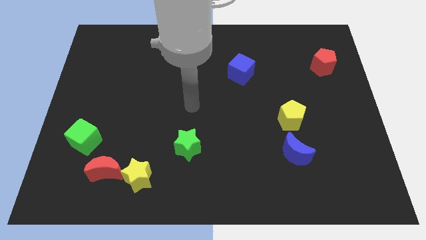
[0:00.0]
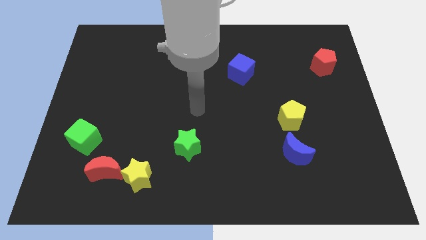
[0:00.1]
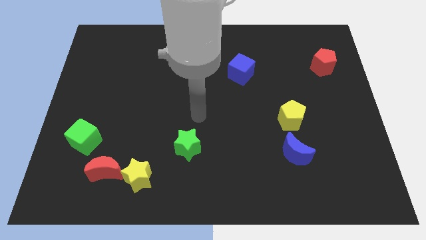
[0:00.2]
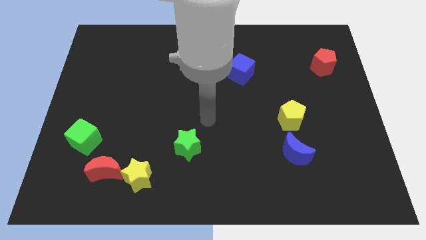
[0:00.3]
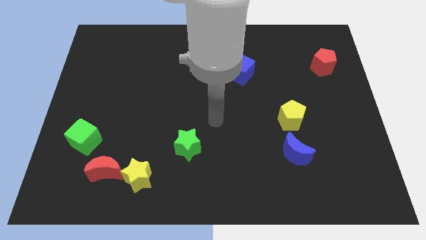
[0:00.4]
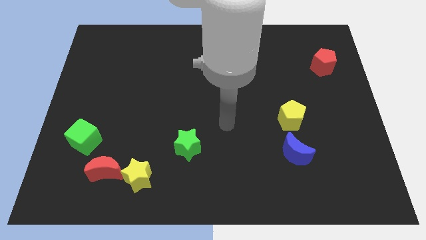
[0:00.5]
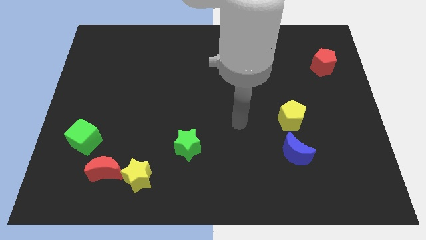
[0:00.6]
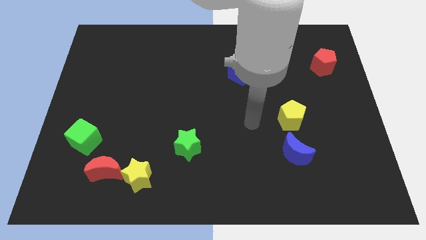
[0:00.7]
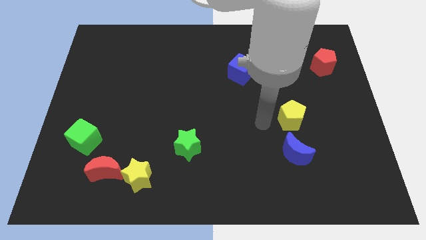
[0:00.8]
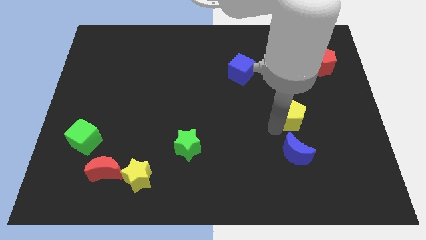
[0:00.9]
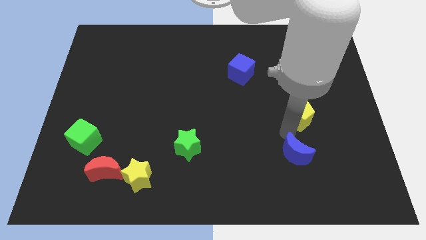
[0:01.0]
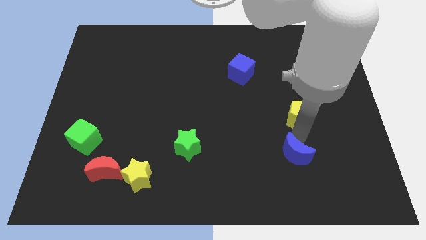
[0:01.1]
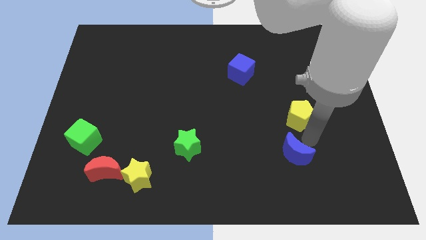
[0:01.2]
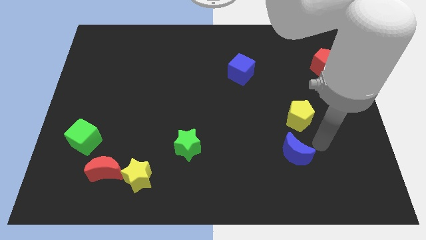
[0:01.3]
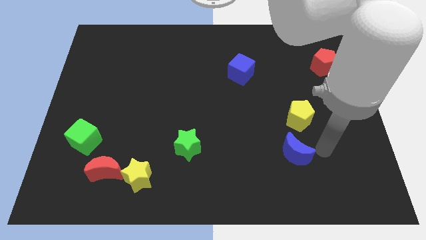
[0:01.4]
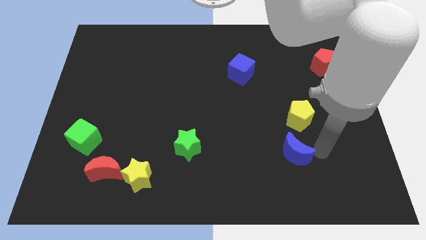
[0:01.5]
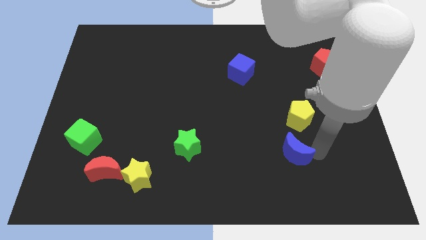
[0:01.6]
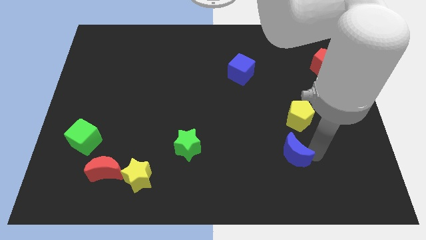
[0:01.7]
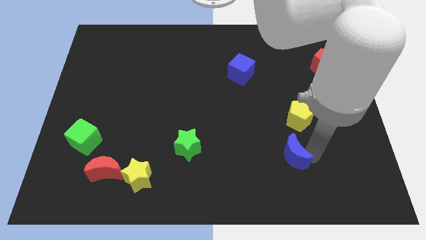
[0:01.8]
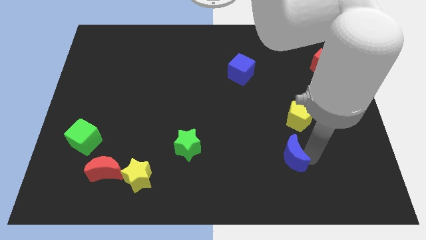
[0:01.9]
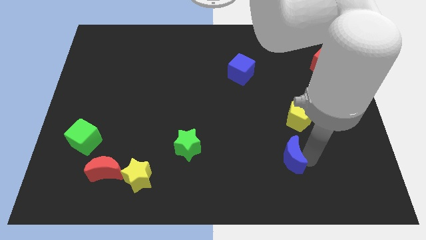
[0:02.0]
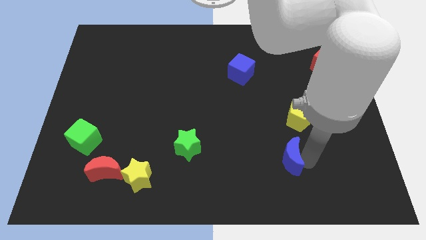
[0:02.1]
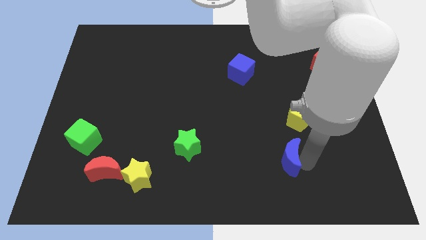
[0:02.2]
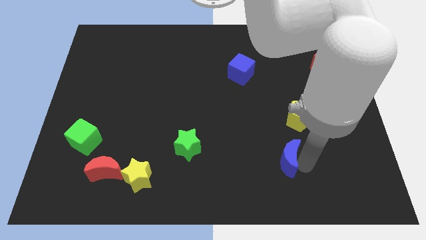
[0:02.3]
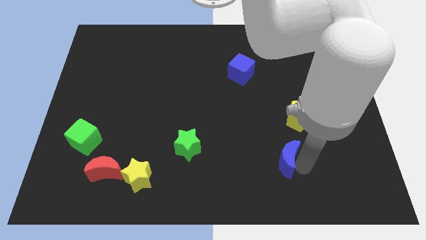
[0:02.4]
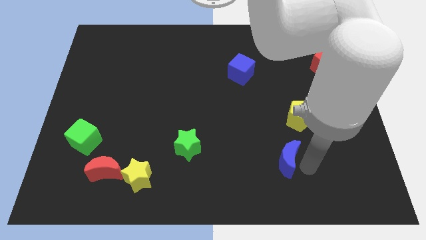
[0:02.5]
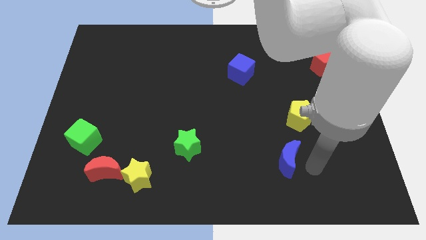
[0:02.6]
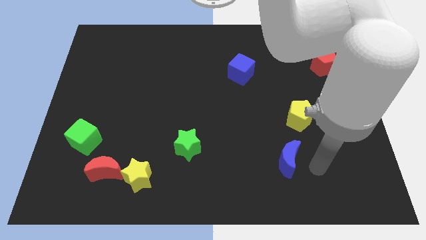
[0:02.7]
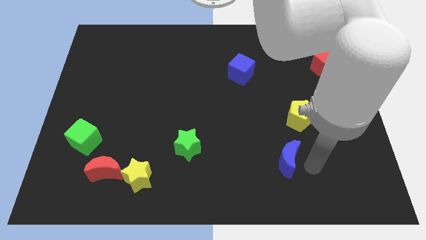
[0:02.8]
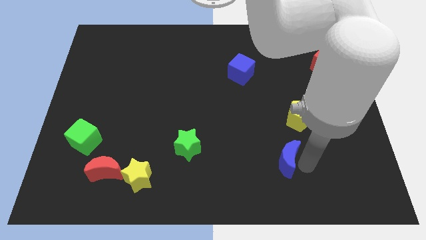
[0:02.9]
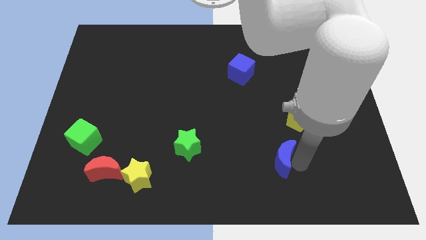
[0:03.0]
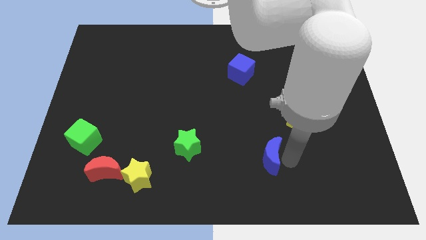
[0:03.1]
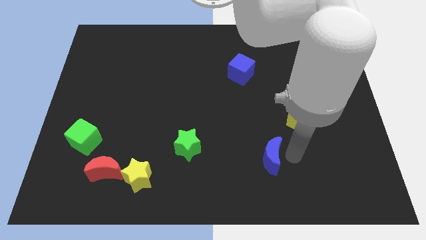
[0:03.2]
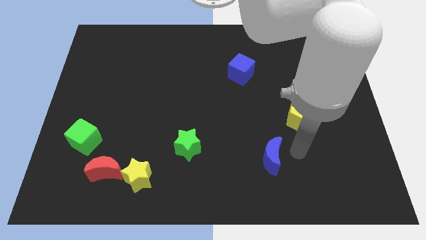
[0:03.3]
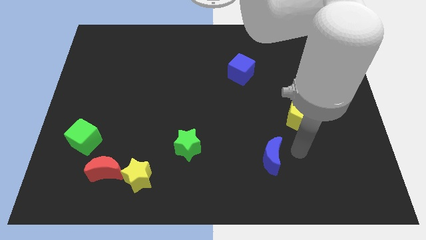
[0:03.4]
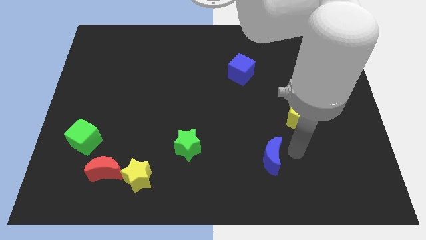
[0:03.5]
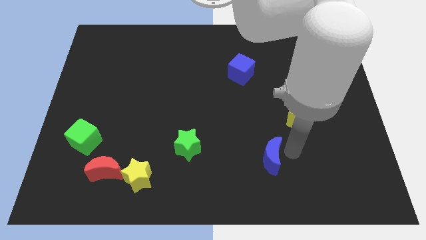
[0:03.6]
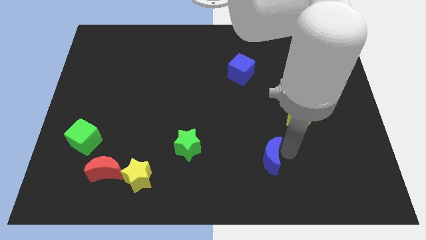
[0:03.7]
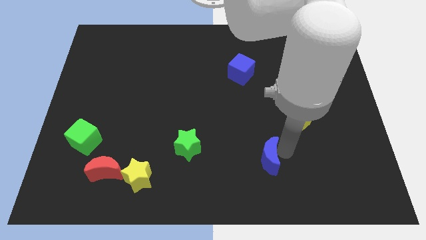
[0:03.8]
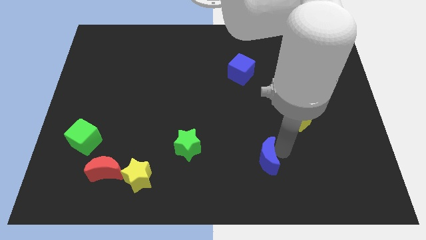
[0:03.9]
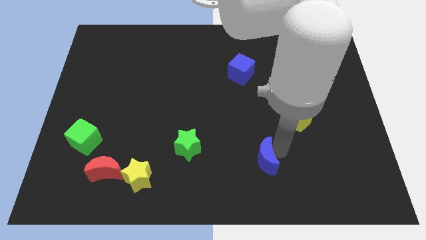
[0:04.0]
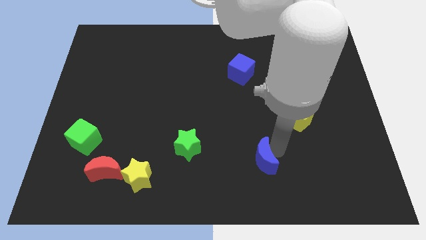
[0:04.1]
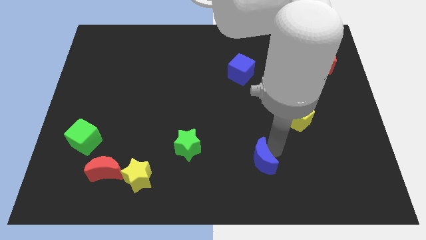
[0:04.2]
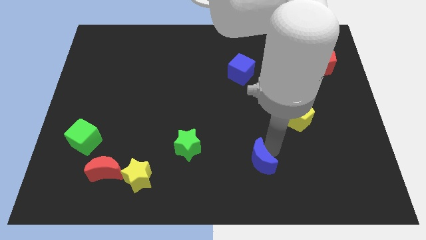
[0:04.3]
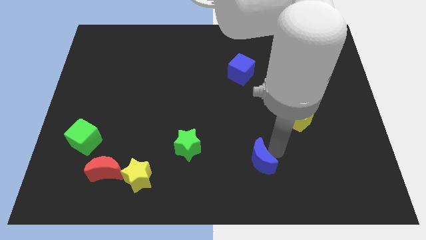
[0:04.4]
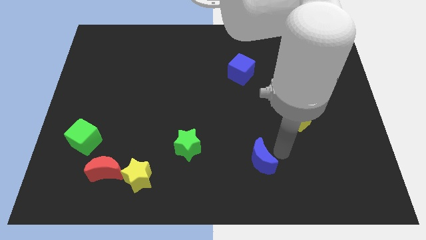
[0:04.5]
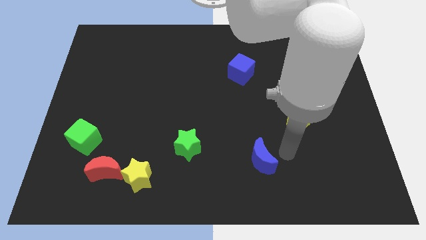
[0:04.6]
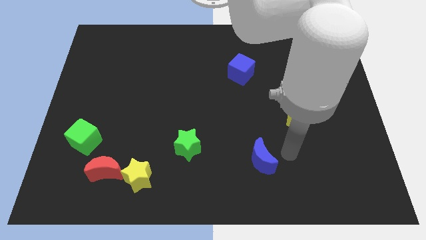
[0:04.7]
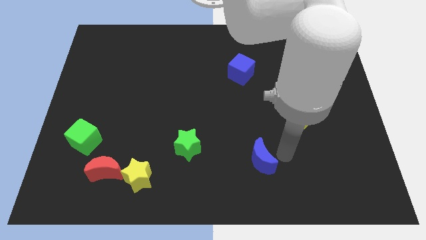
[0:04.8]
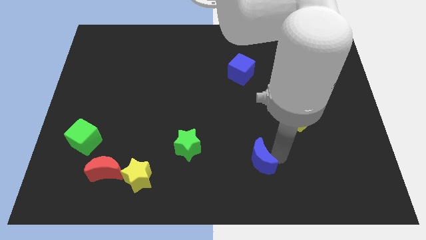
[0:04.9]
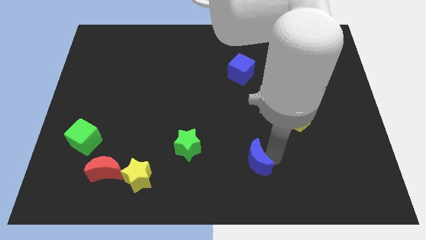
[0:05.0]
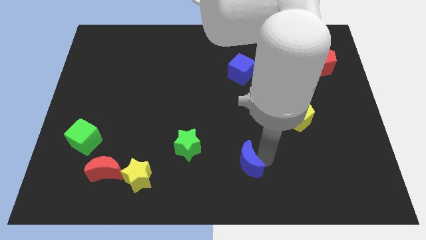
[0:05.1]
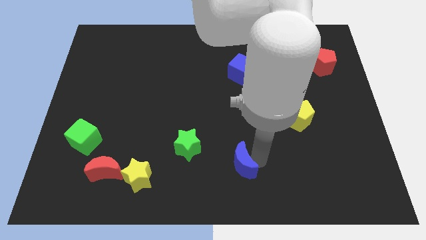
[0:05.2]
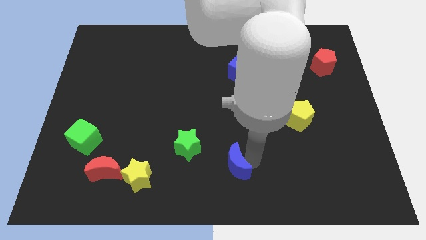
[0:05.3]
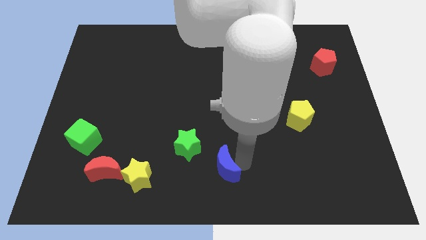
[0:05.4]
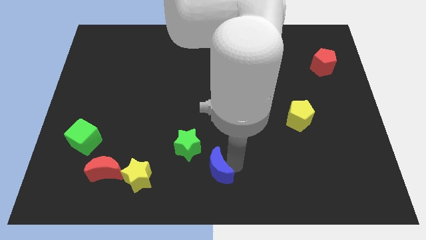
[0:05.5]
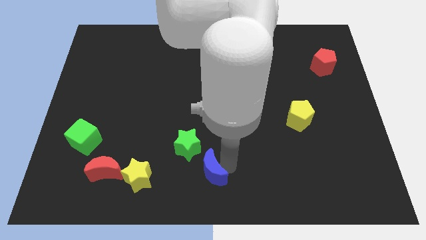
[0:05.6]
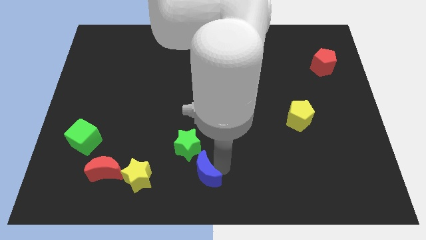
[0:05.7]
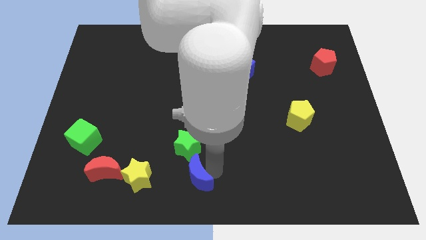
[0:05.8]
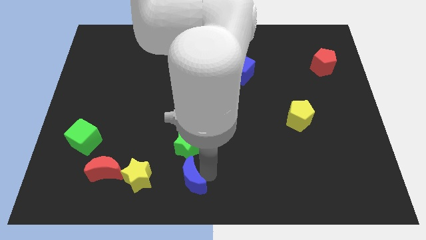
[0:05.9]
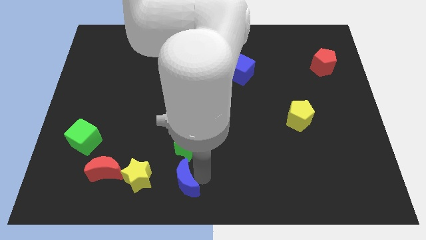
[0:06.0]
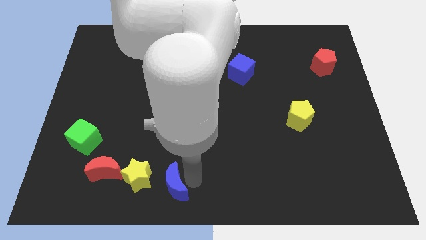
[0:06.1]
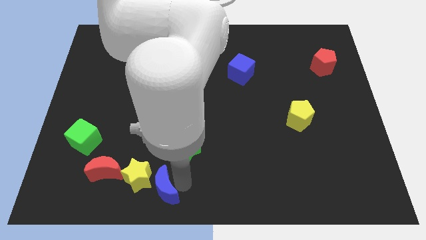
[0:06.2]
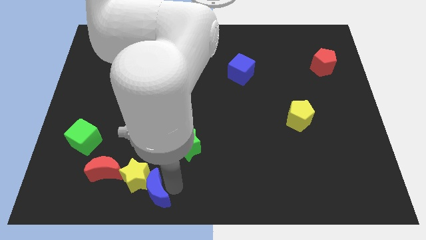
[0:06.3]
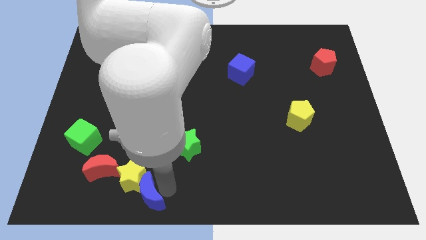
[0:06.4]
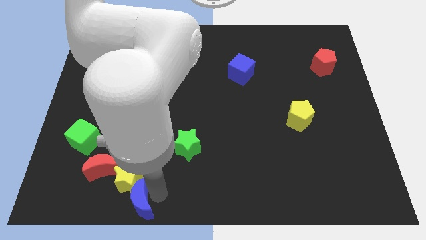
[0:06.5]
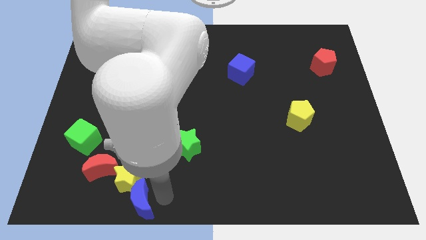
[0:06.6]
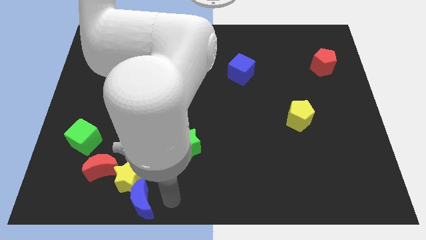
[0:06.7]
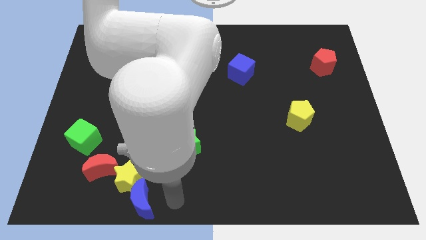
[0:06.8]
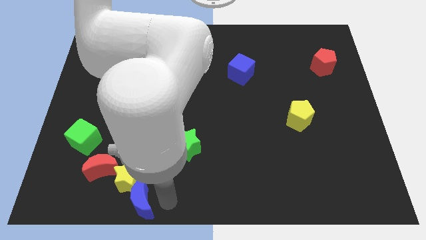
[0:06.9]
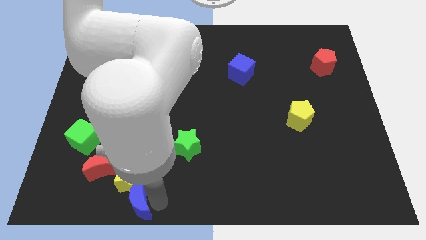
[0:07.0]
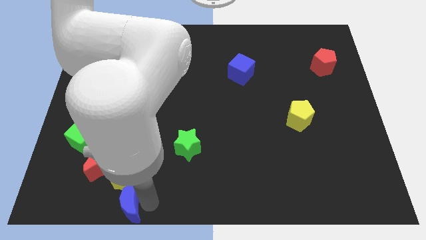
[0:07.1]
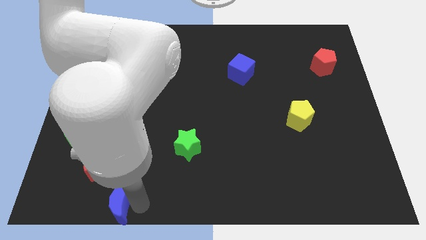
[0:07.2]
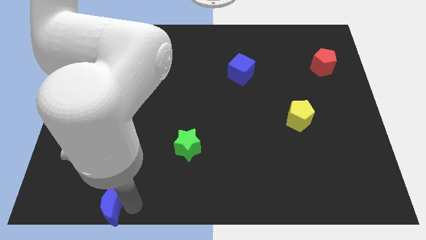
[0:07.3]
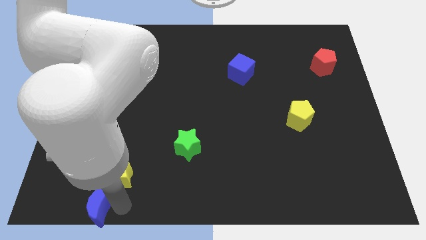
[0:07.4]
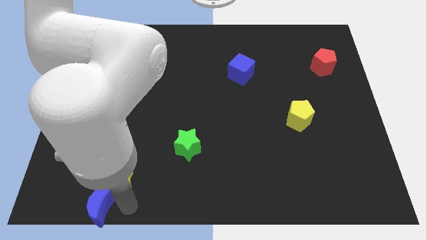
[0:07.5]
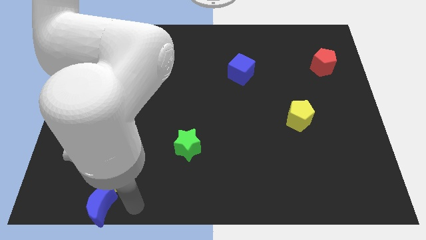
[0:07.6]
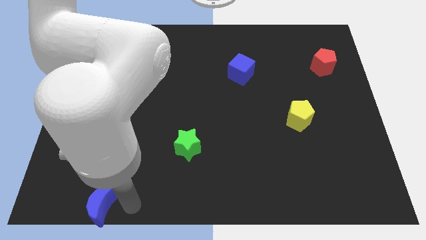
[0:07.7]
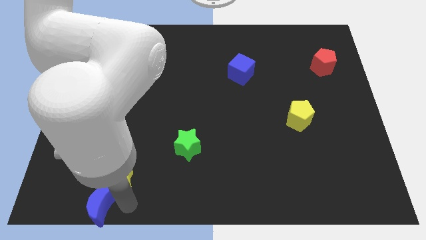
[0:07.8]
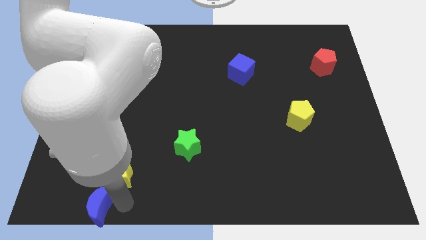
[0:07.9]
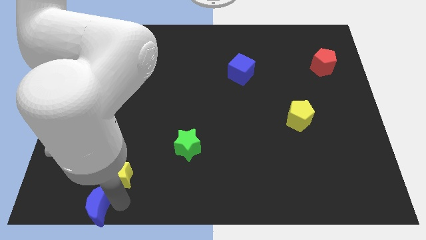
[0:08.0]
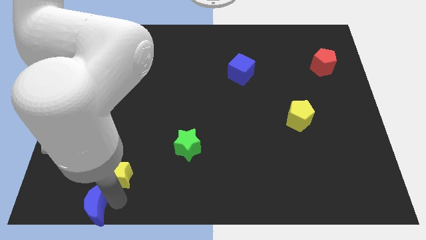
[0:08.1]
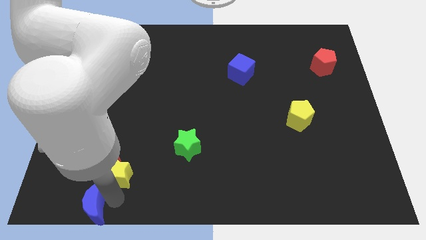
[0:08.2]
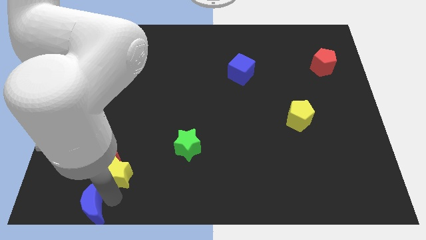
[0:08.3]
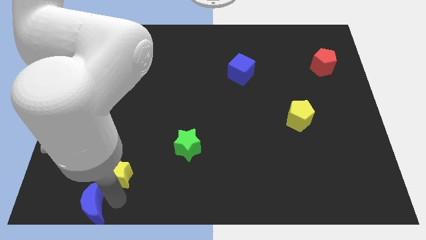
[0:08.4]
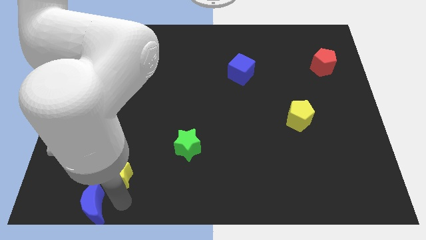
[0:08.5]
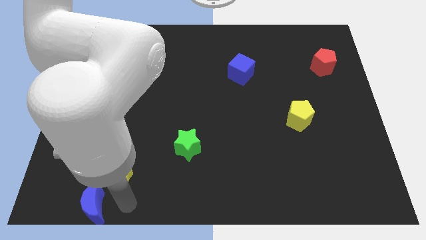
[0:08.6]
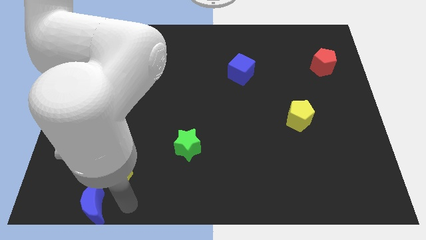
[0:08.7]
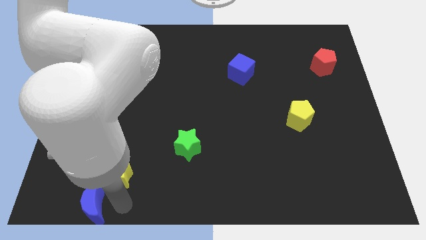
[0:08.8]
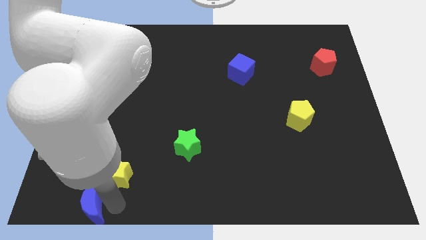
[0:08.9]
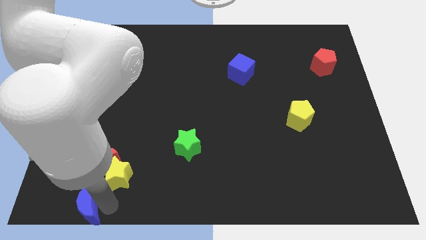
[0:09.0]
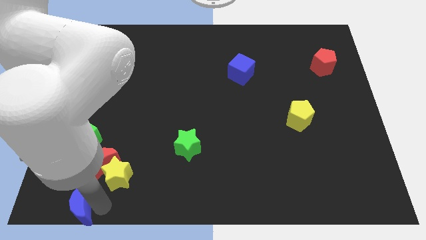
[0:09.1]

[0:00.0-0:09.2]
put the blue moon to the bottom left of the board
